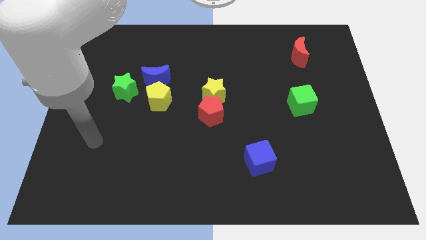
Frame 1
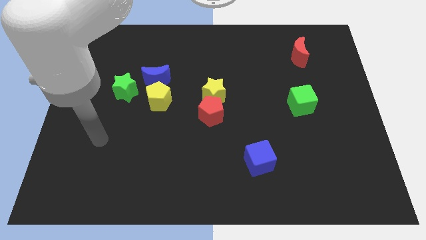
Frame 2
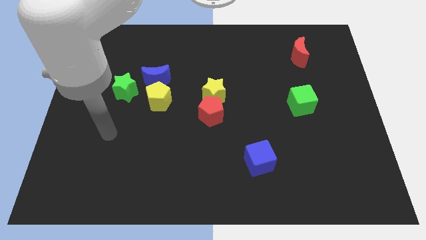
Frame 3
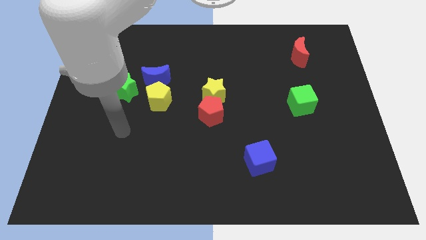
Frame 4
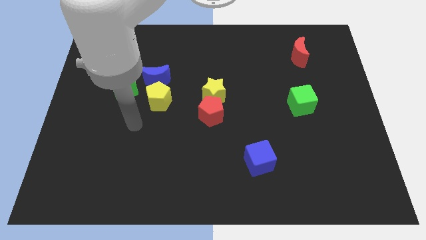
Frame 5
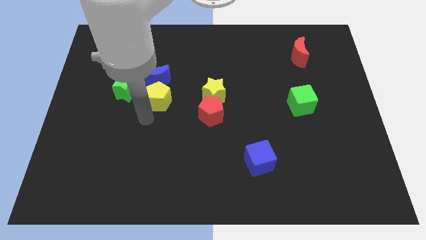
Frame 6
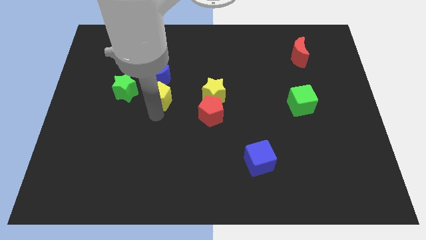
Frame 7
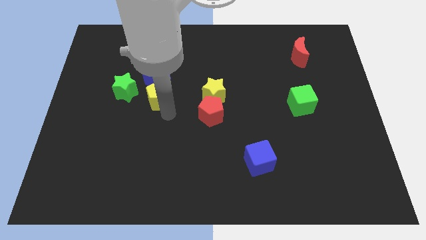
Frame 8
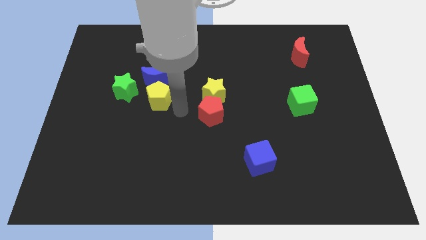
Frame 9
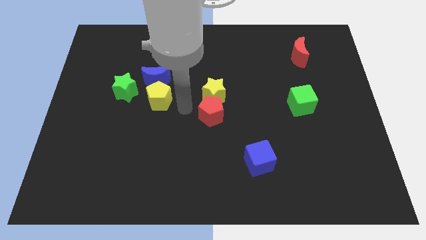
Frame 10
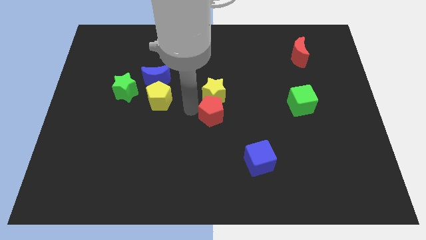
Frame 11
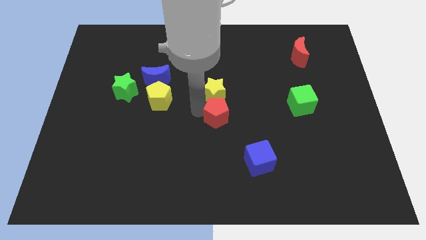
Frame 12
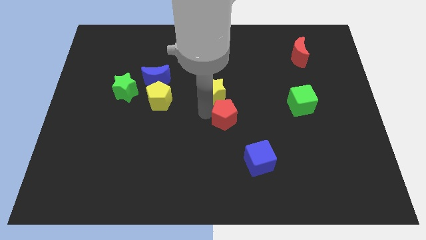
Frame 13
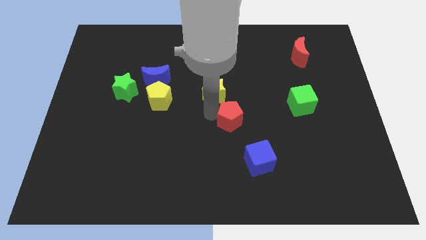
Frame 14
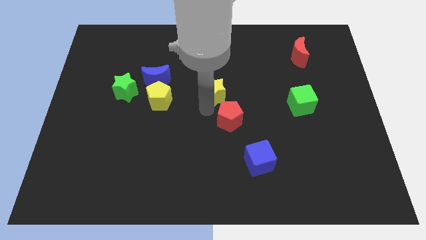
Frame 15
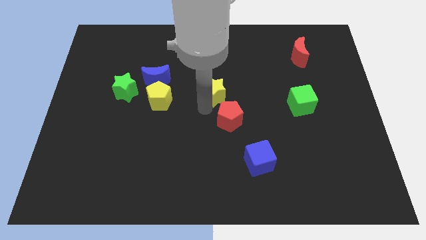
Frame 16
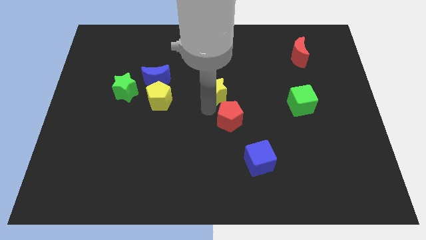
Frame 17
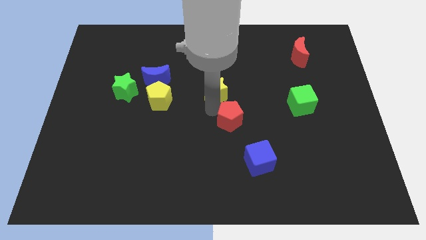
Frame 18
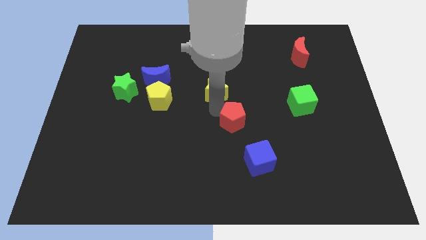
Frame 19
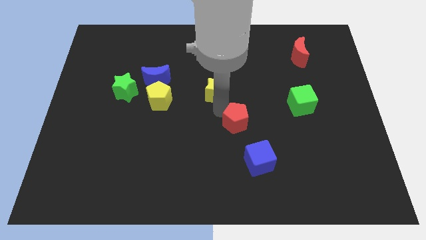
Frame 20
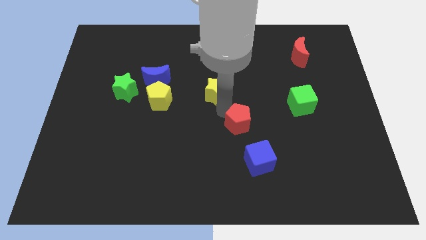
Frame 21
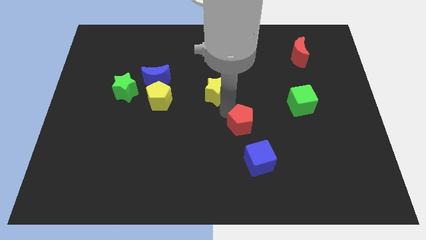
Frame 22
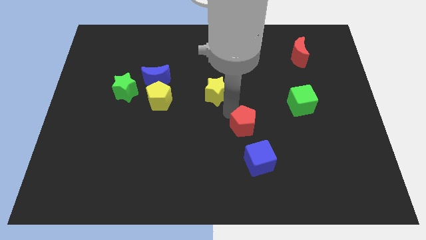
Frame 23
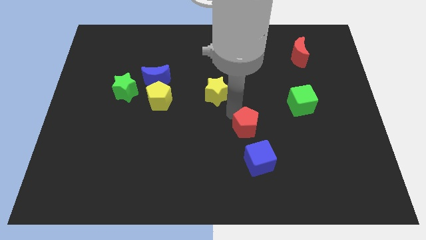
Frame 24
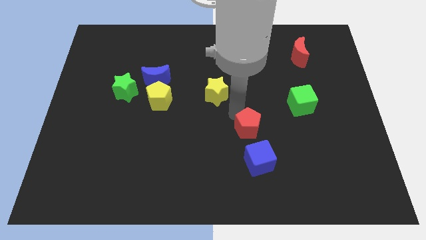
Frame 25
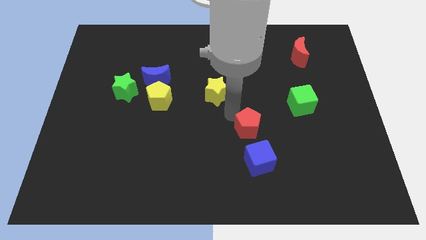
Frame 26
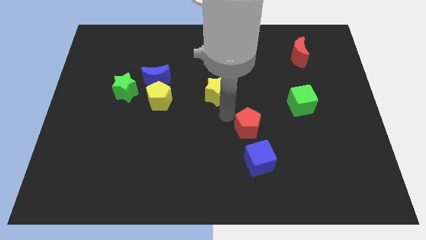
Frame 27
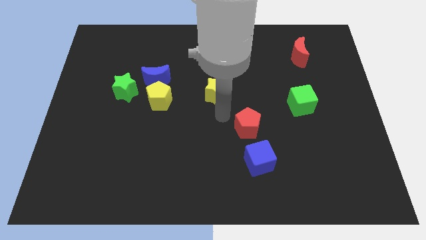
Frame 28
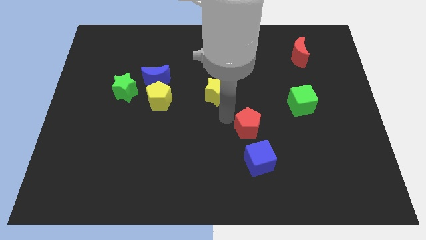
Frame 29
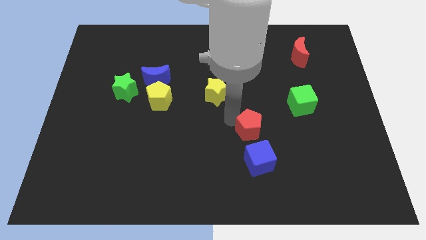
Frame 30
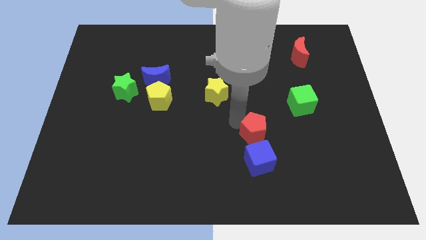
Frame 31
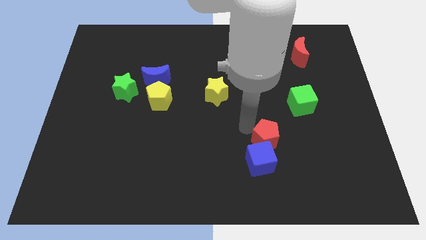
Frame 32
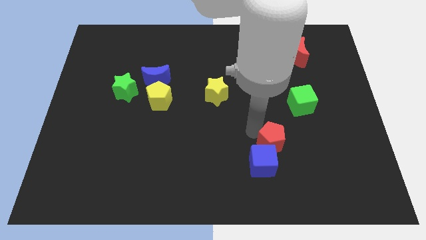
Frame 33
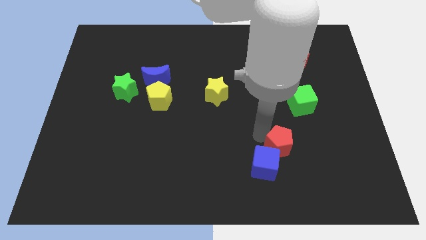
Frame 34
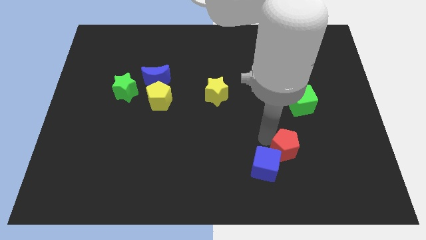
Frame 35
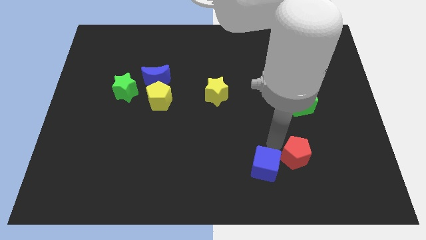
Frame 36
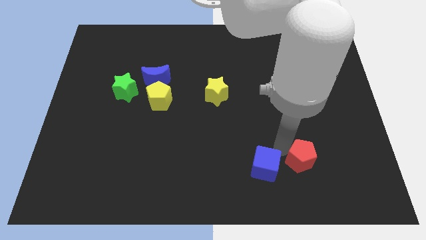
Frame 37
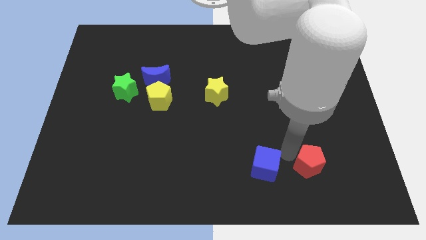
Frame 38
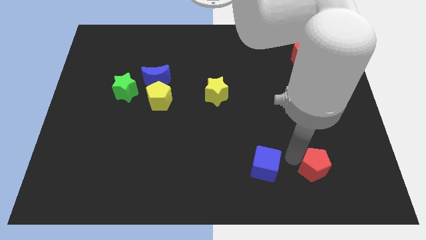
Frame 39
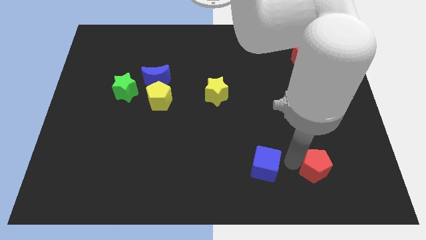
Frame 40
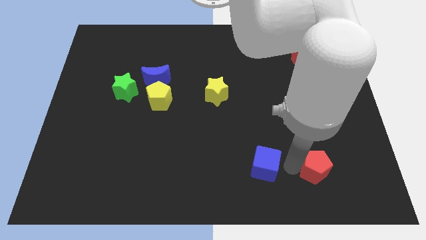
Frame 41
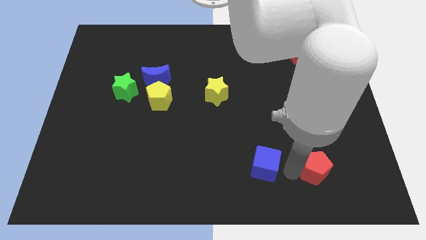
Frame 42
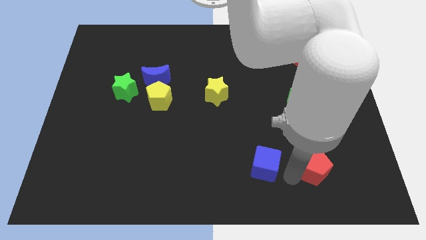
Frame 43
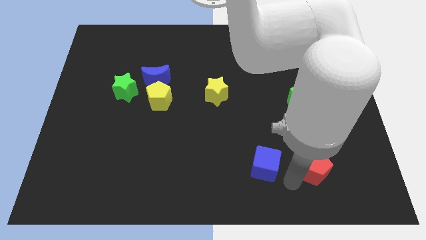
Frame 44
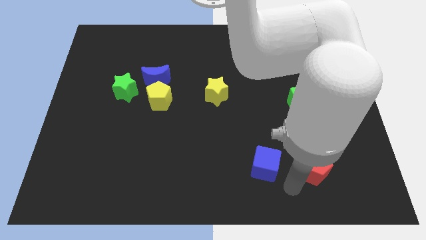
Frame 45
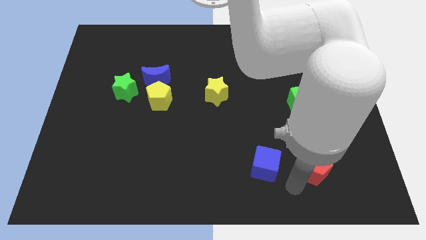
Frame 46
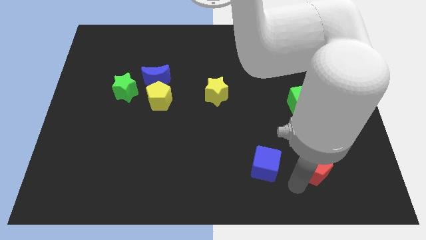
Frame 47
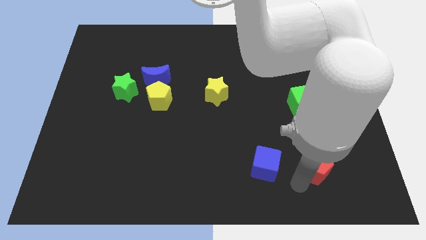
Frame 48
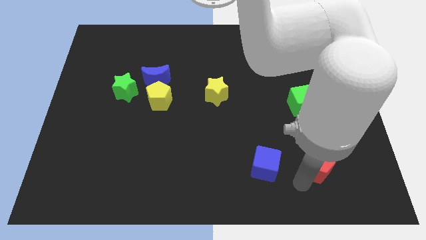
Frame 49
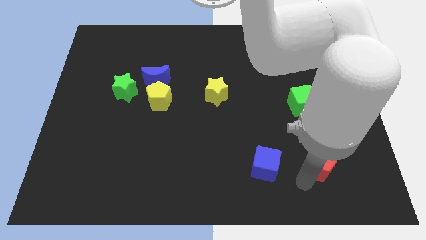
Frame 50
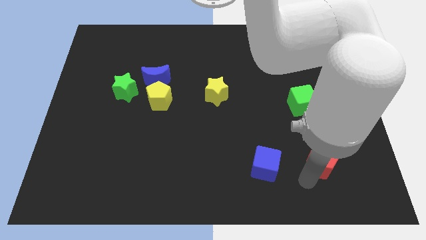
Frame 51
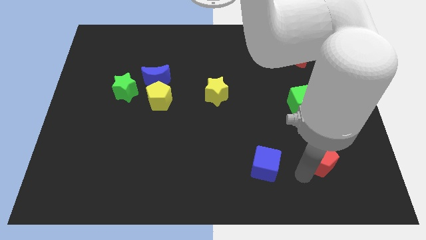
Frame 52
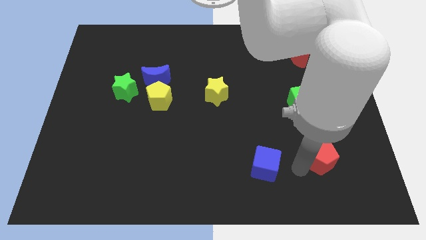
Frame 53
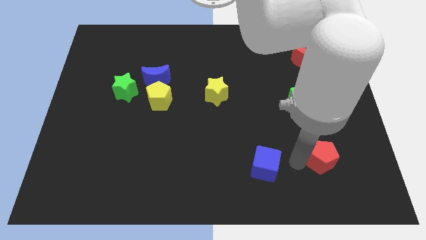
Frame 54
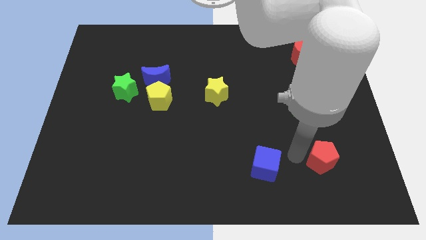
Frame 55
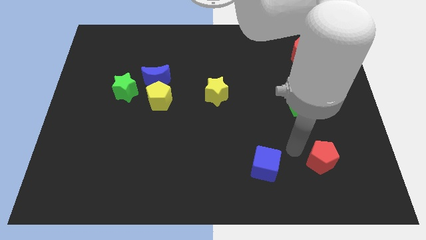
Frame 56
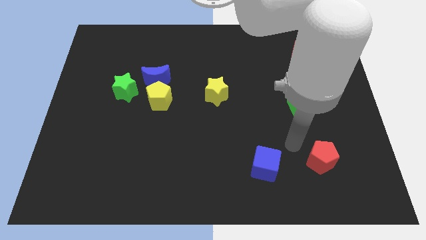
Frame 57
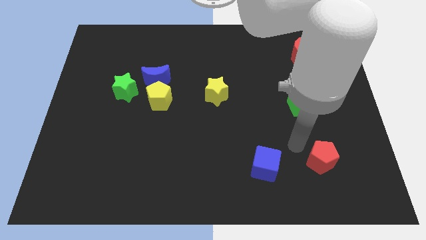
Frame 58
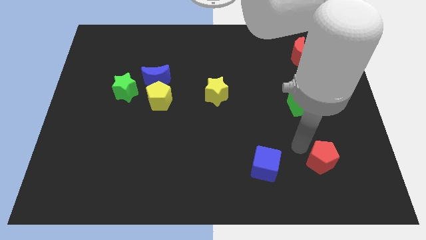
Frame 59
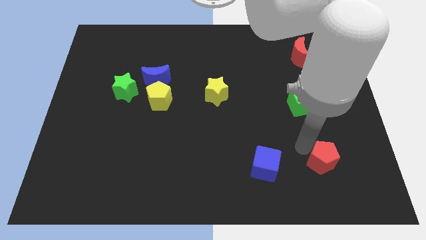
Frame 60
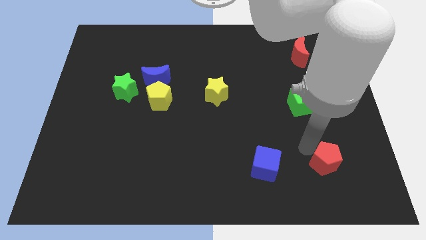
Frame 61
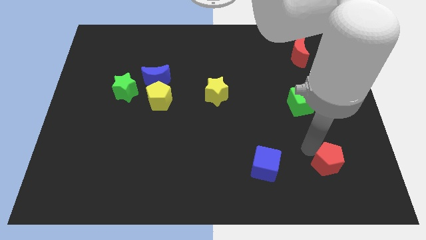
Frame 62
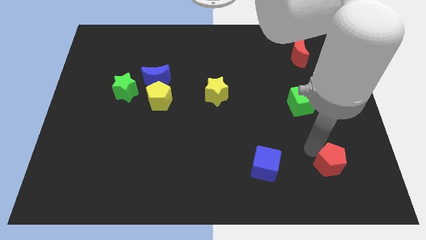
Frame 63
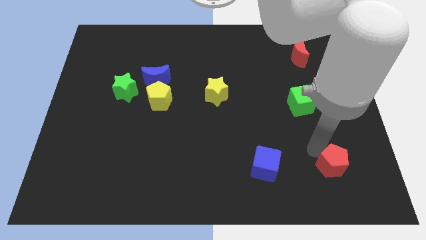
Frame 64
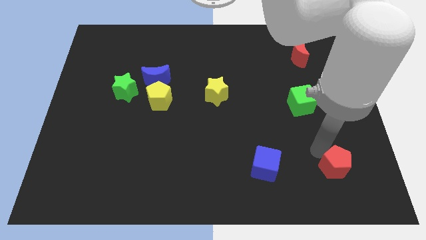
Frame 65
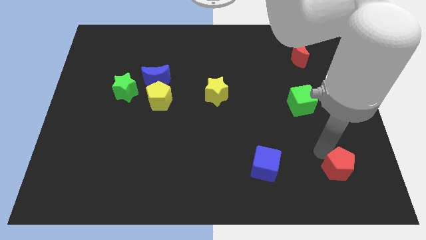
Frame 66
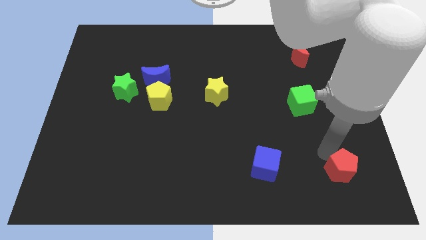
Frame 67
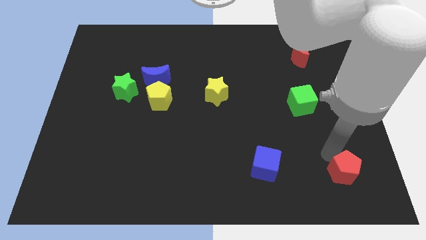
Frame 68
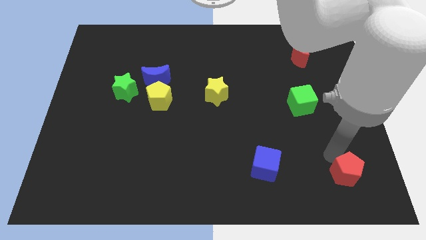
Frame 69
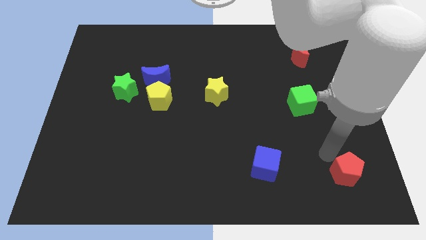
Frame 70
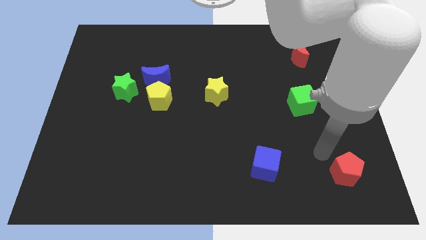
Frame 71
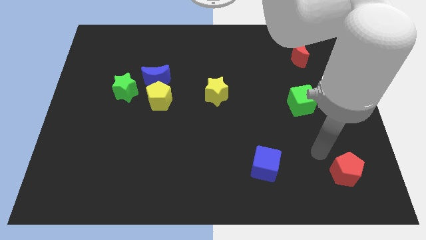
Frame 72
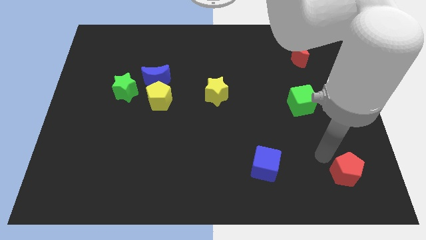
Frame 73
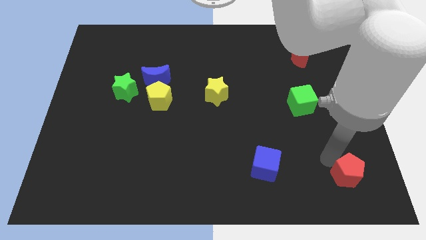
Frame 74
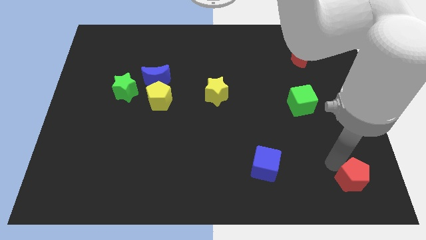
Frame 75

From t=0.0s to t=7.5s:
slide the red pentagon to the lower right corner

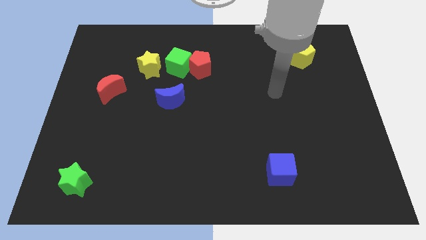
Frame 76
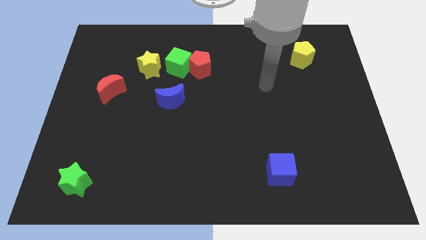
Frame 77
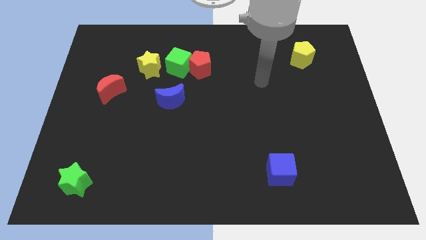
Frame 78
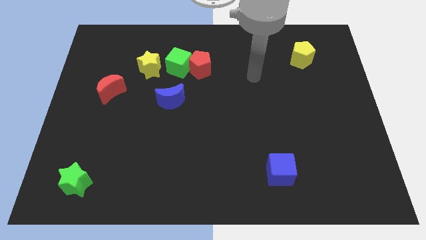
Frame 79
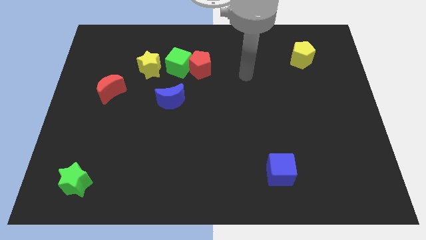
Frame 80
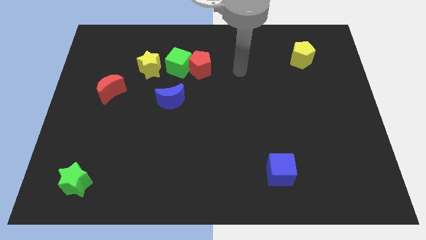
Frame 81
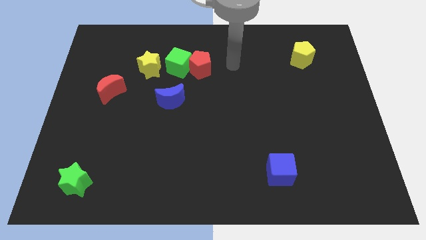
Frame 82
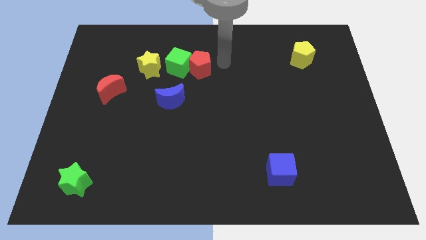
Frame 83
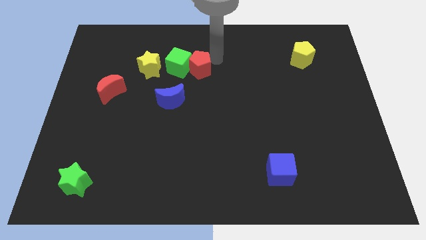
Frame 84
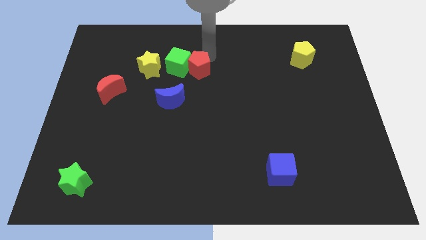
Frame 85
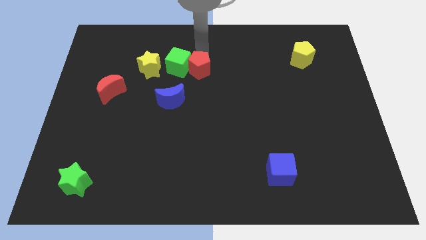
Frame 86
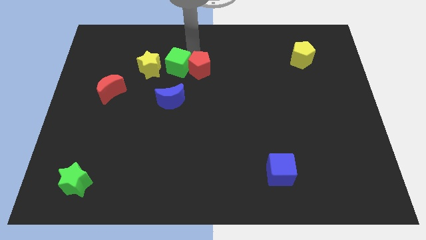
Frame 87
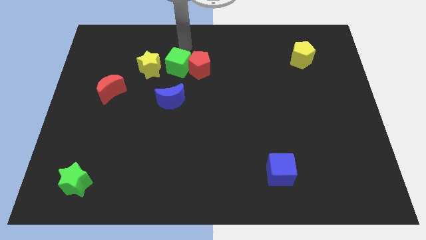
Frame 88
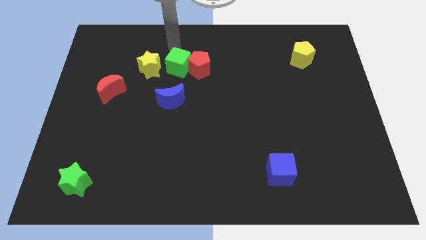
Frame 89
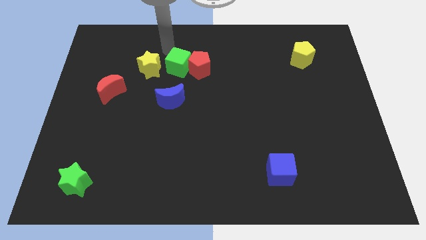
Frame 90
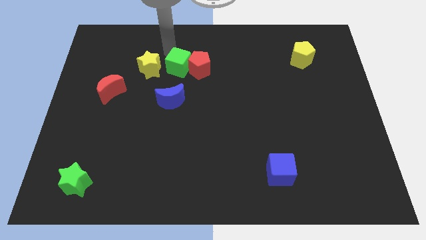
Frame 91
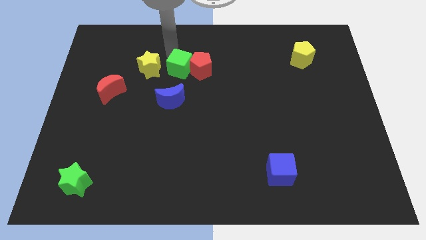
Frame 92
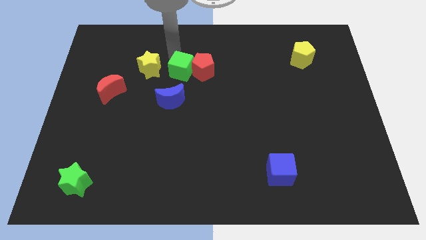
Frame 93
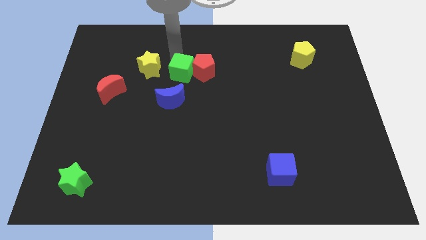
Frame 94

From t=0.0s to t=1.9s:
slide the green cube to the middle of the board
